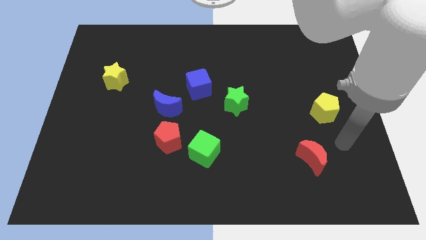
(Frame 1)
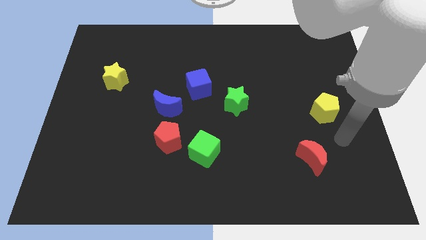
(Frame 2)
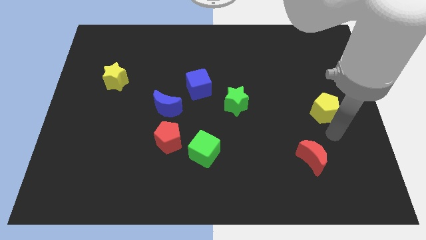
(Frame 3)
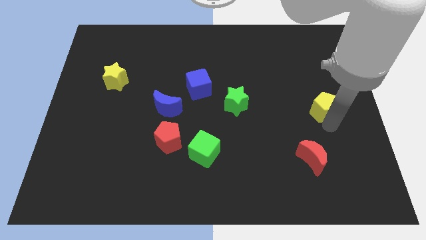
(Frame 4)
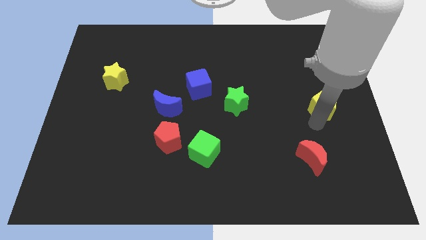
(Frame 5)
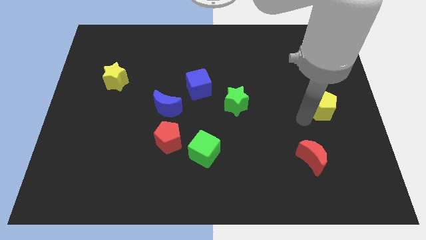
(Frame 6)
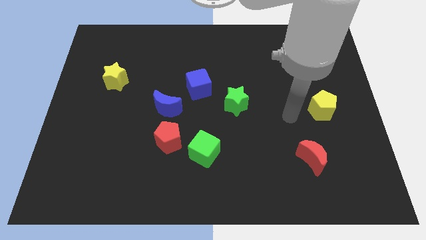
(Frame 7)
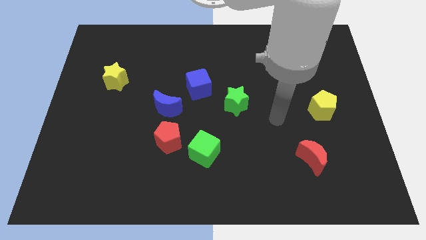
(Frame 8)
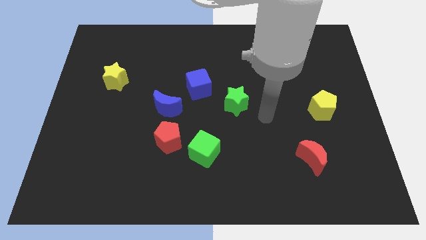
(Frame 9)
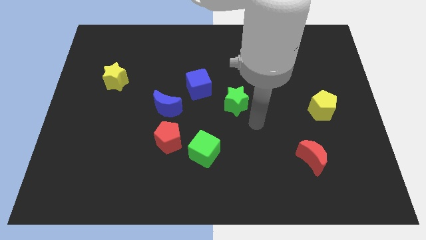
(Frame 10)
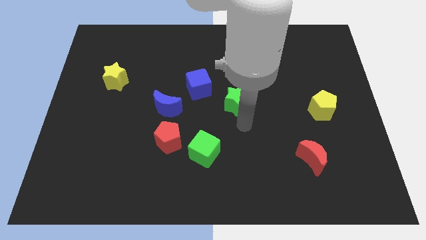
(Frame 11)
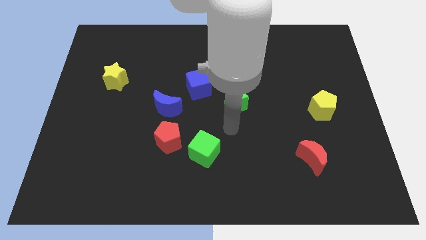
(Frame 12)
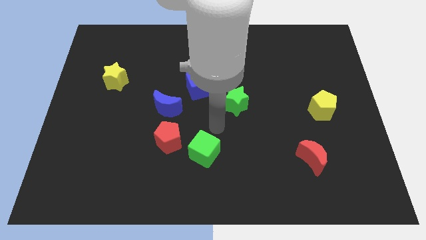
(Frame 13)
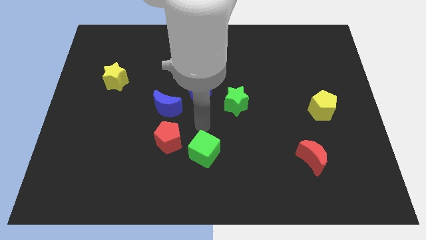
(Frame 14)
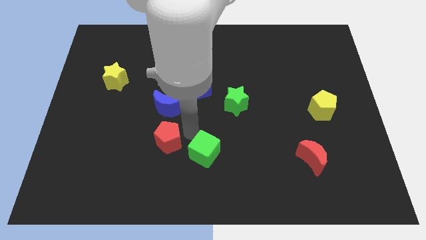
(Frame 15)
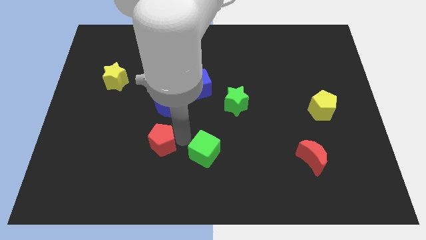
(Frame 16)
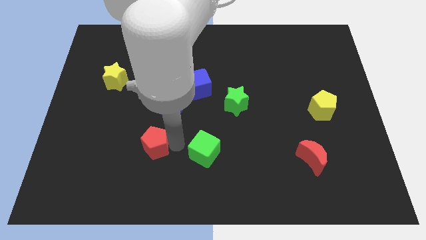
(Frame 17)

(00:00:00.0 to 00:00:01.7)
move the green cube away from the red pentagon

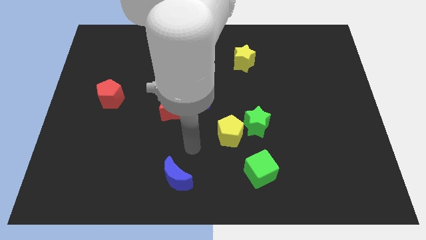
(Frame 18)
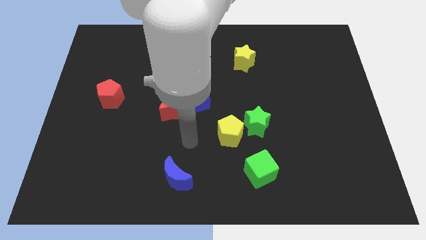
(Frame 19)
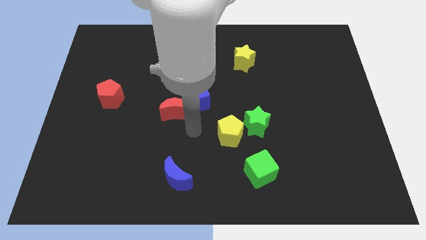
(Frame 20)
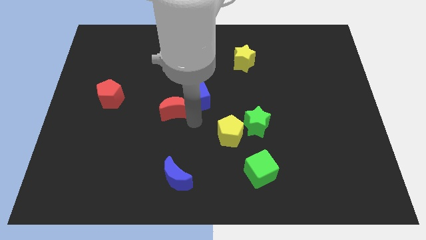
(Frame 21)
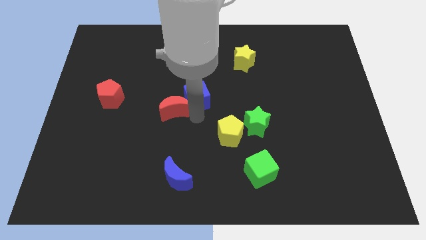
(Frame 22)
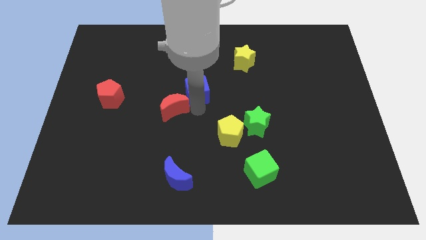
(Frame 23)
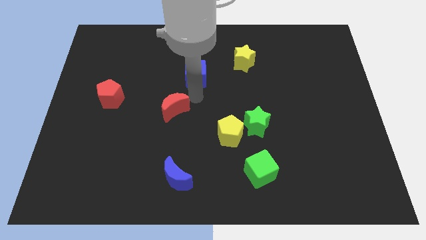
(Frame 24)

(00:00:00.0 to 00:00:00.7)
pull the red moon apart from the blue cube

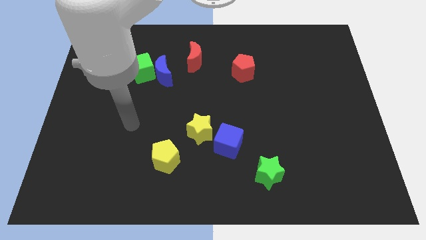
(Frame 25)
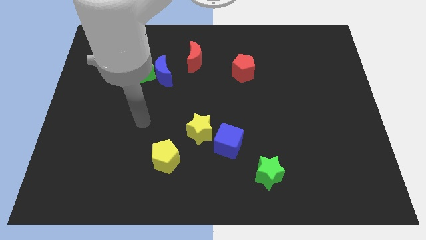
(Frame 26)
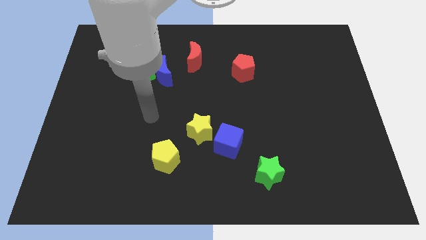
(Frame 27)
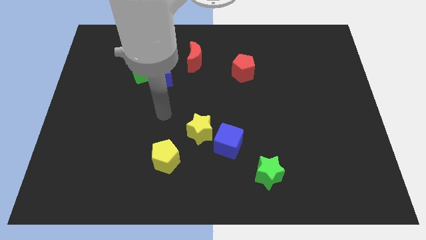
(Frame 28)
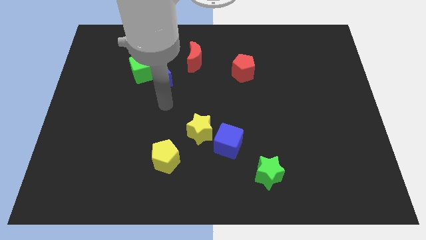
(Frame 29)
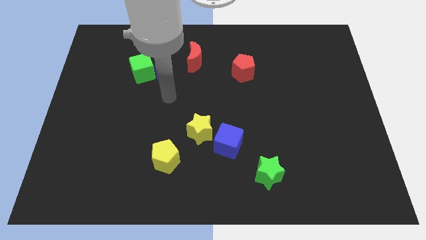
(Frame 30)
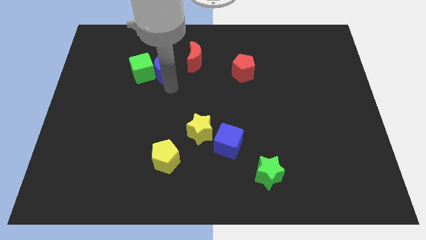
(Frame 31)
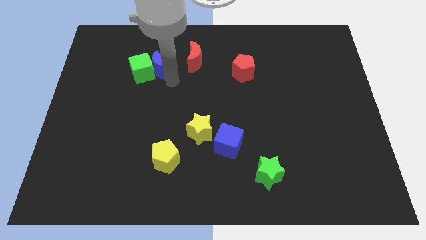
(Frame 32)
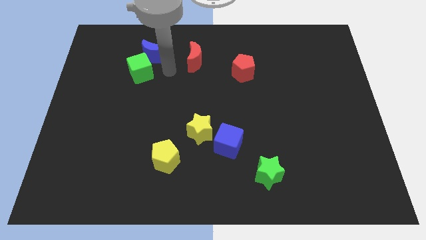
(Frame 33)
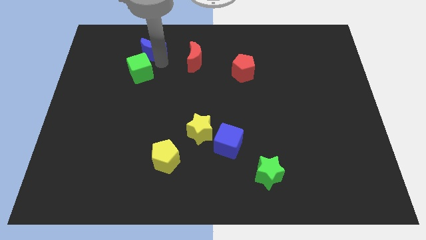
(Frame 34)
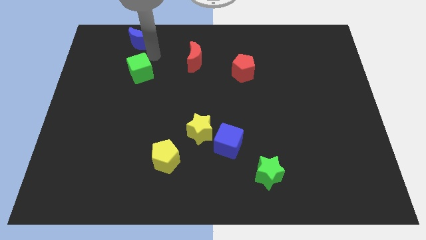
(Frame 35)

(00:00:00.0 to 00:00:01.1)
move the green cube away from the blue moon

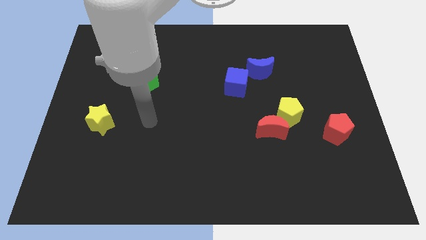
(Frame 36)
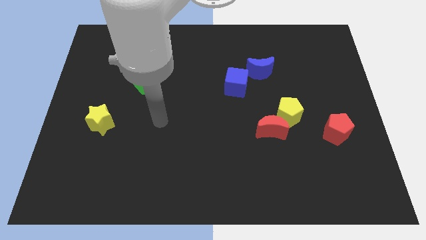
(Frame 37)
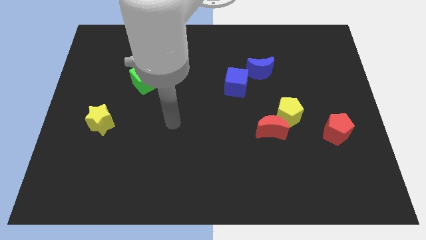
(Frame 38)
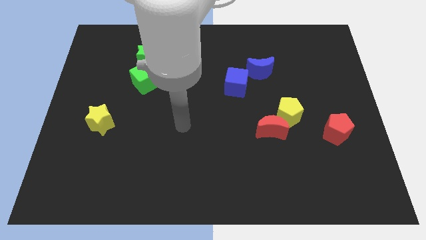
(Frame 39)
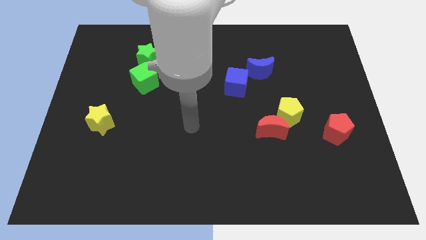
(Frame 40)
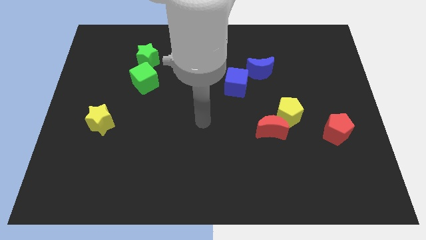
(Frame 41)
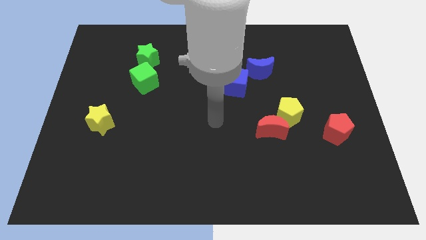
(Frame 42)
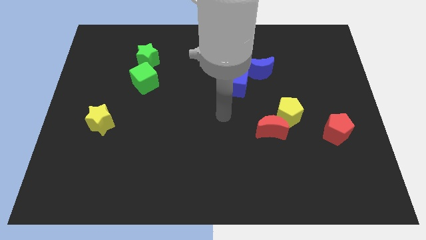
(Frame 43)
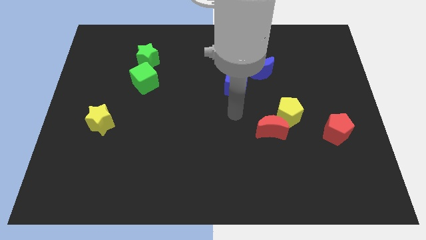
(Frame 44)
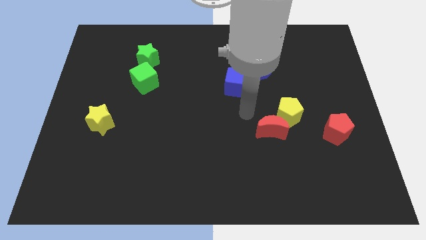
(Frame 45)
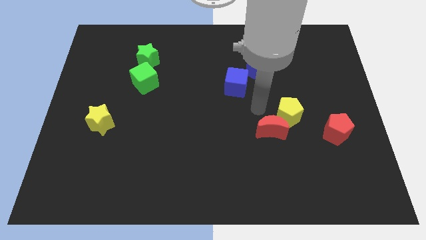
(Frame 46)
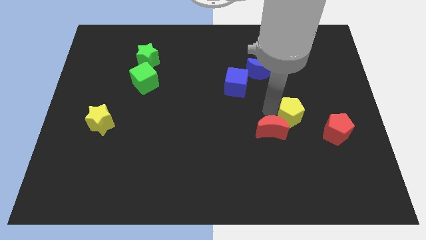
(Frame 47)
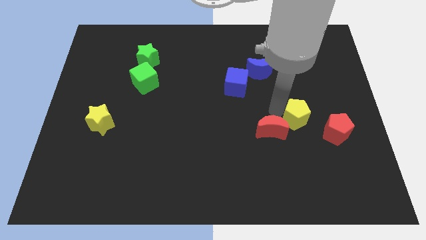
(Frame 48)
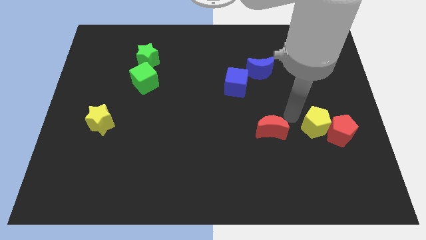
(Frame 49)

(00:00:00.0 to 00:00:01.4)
move the red moon away from the yellow pentagon

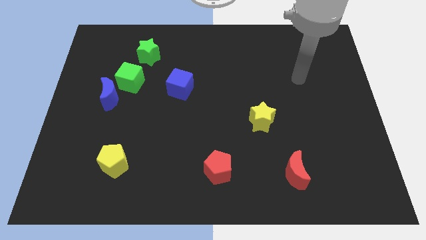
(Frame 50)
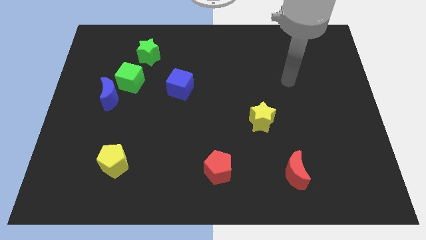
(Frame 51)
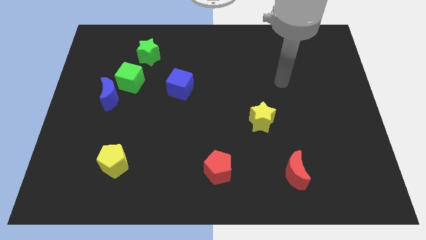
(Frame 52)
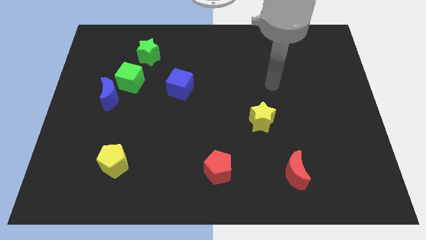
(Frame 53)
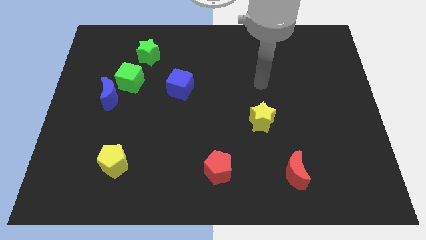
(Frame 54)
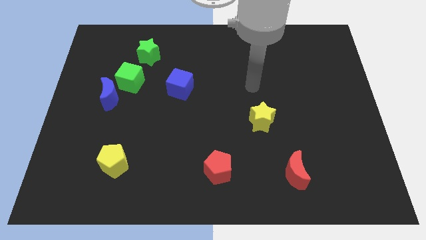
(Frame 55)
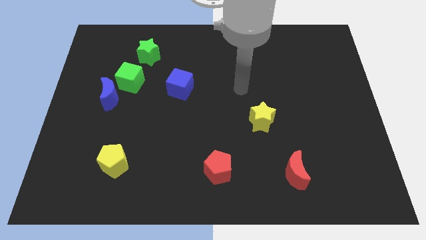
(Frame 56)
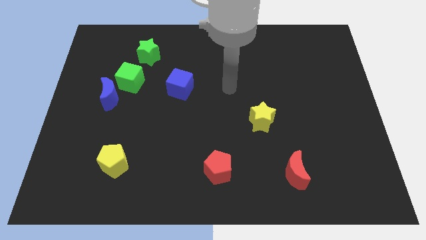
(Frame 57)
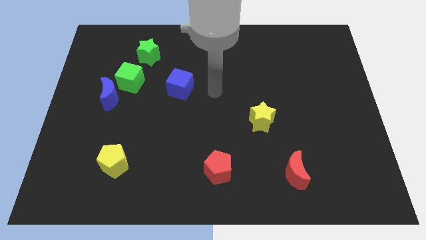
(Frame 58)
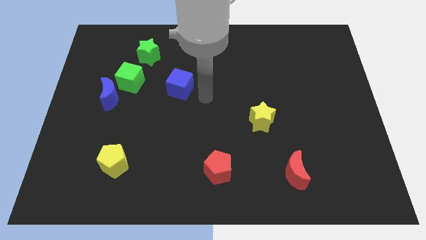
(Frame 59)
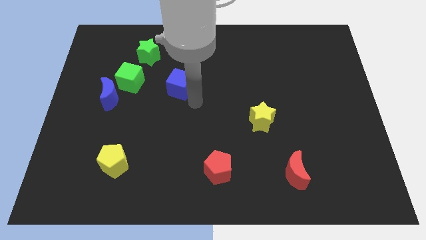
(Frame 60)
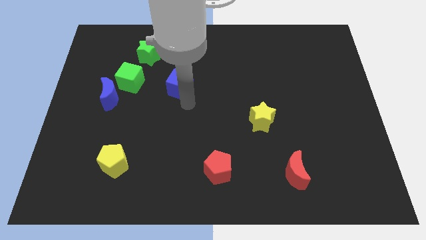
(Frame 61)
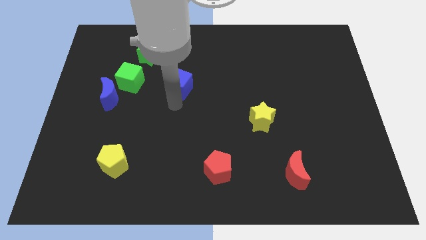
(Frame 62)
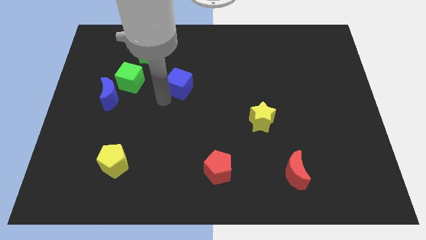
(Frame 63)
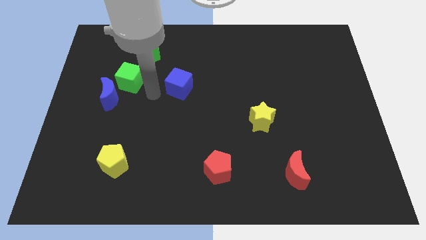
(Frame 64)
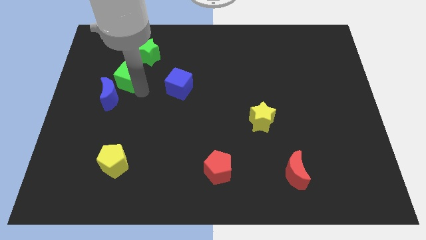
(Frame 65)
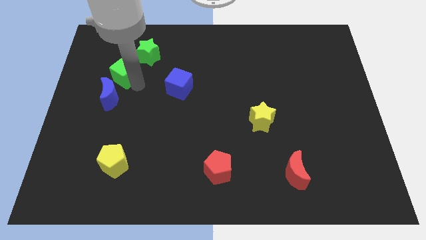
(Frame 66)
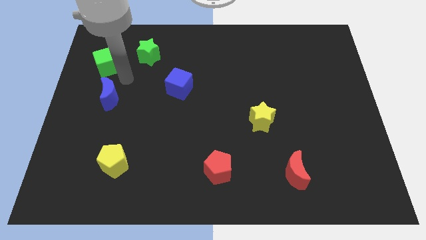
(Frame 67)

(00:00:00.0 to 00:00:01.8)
pull the blue moon apart from the green cube

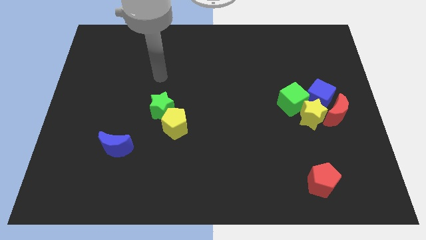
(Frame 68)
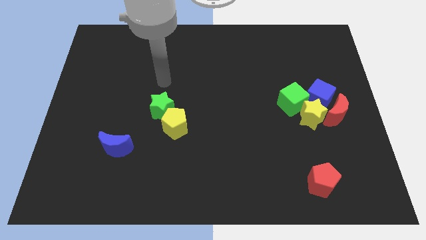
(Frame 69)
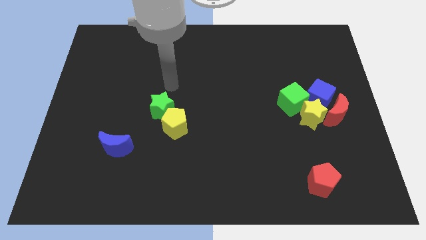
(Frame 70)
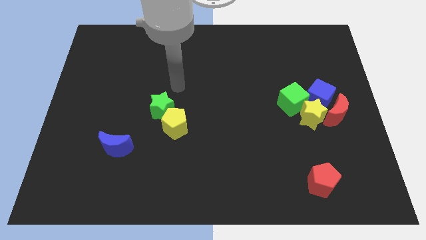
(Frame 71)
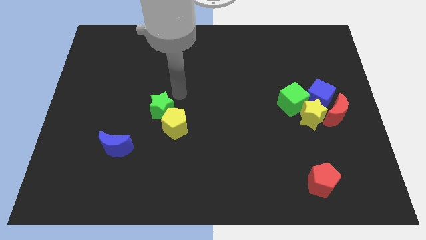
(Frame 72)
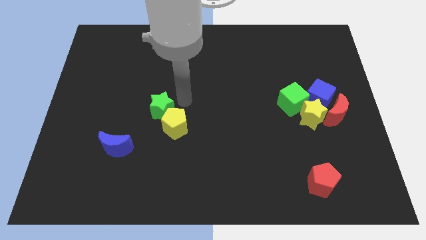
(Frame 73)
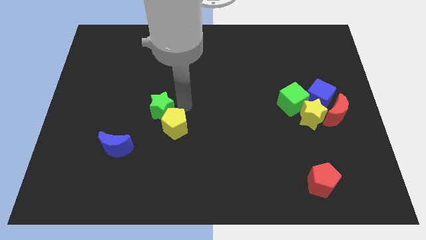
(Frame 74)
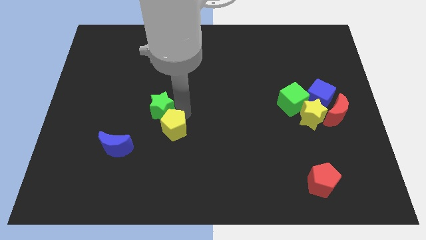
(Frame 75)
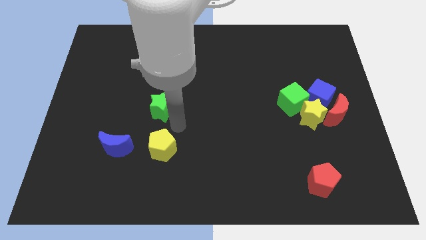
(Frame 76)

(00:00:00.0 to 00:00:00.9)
separate the green star from the yellow pentagon

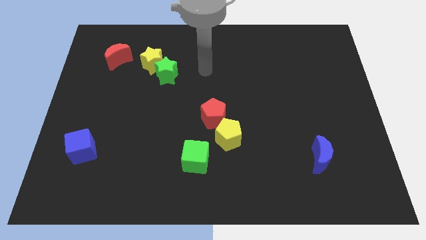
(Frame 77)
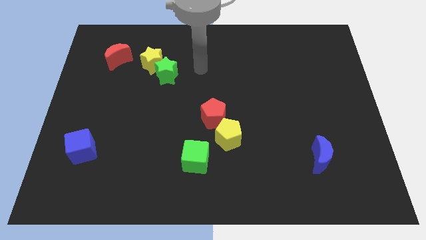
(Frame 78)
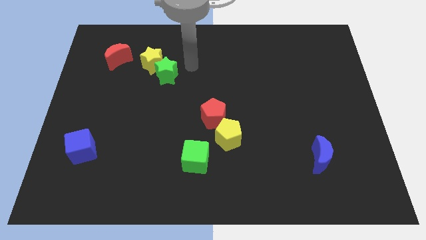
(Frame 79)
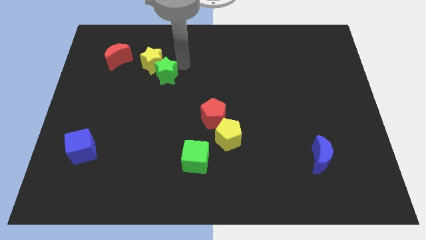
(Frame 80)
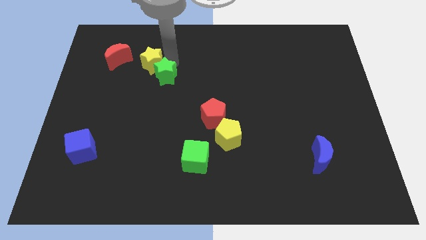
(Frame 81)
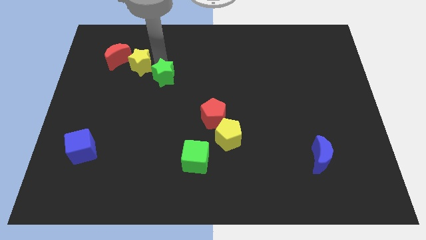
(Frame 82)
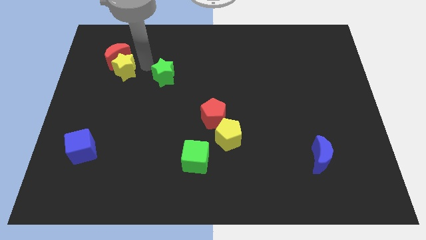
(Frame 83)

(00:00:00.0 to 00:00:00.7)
separate the green star from the yellow star

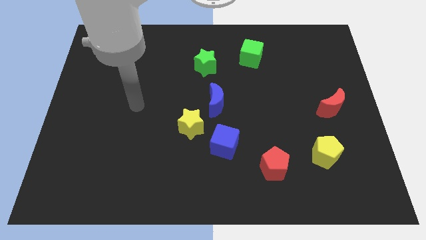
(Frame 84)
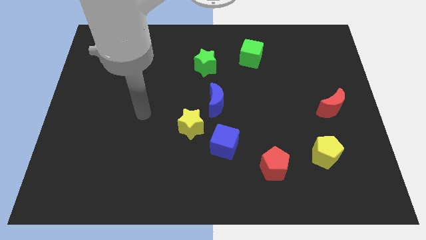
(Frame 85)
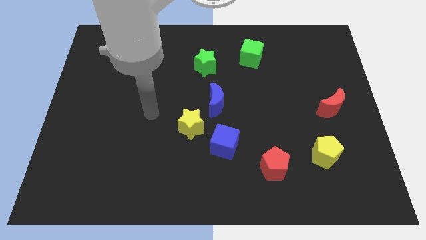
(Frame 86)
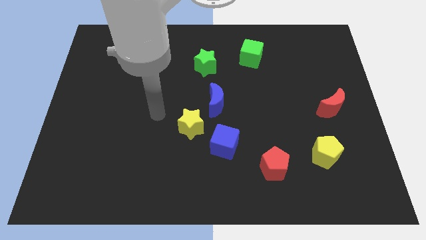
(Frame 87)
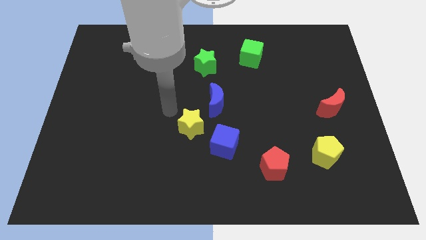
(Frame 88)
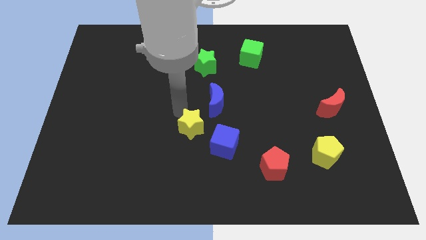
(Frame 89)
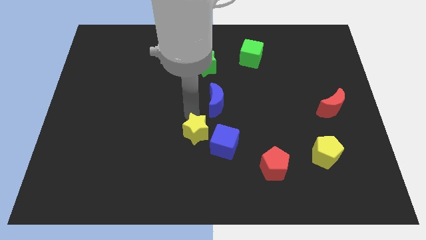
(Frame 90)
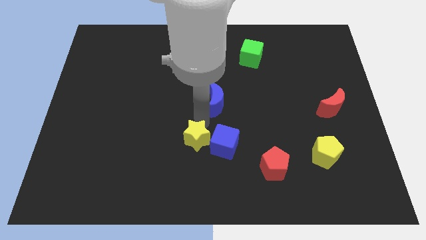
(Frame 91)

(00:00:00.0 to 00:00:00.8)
pull the blue moon apart from the yellow star

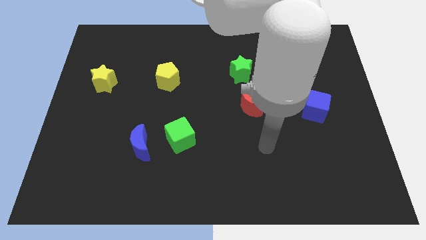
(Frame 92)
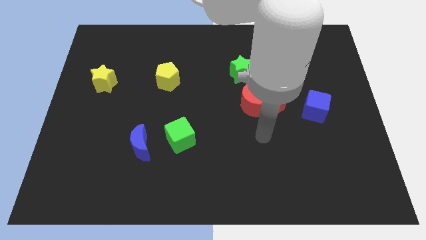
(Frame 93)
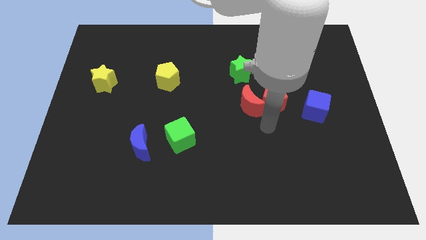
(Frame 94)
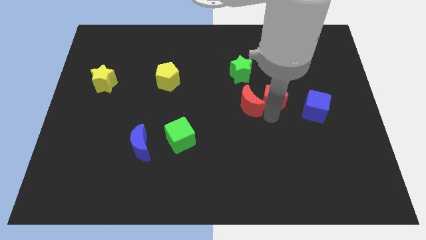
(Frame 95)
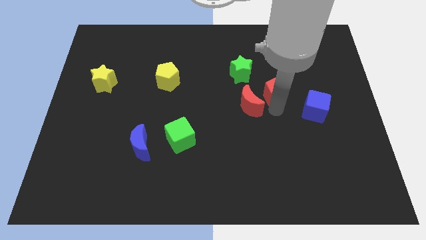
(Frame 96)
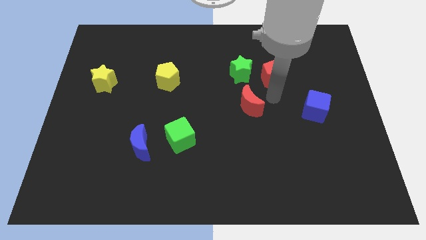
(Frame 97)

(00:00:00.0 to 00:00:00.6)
separate the red moon from the red pentagon
